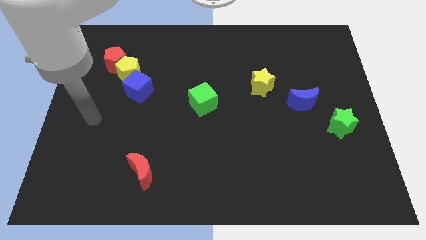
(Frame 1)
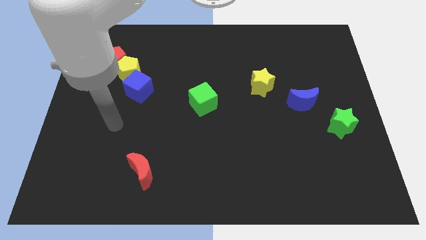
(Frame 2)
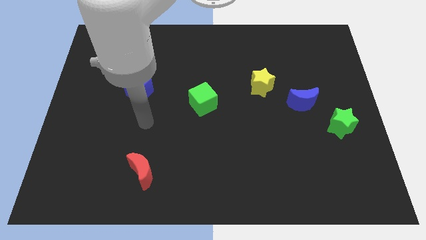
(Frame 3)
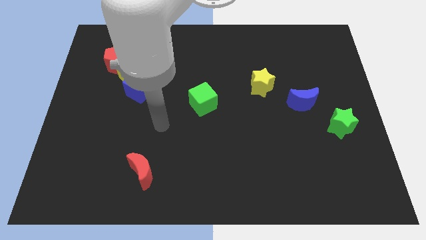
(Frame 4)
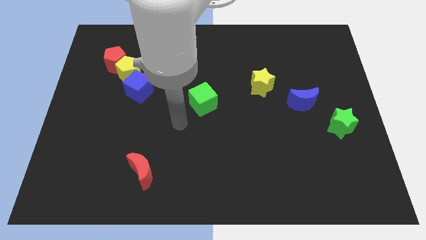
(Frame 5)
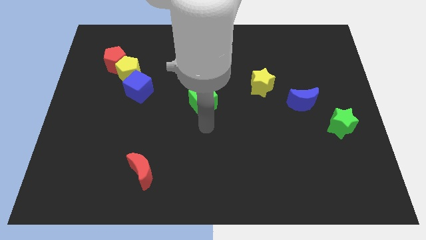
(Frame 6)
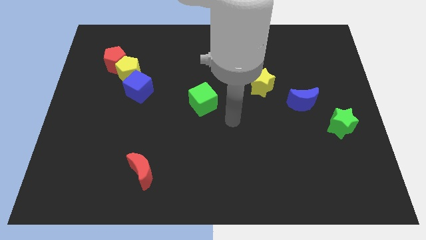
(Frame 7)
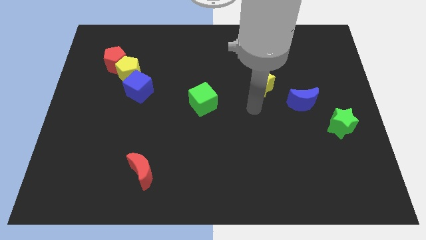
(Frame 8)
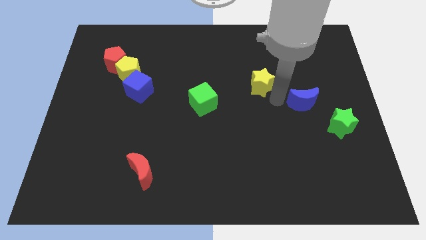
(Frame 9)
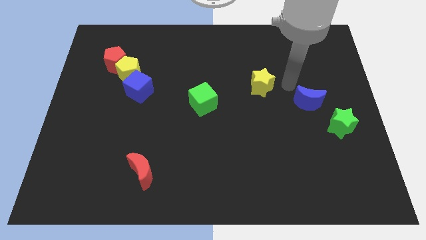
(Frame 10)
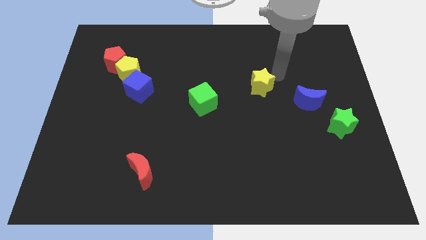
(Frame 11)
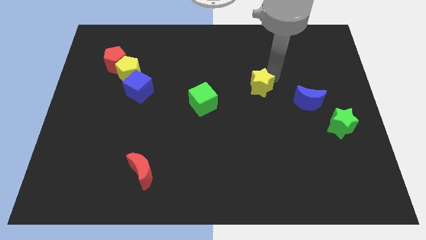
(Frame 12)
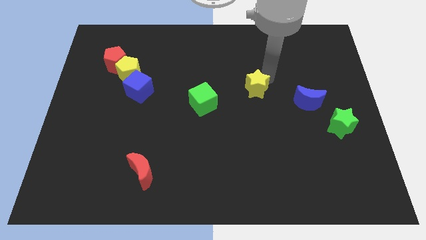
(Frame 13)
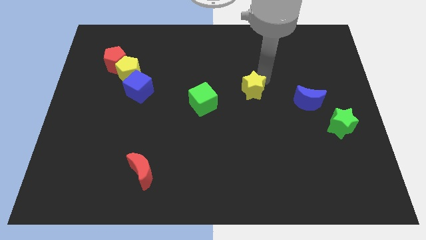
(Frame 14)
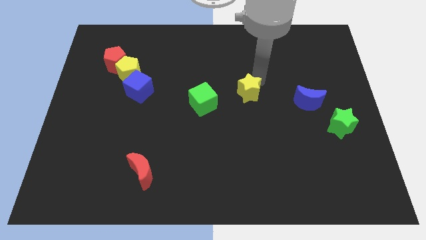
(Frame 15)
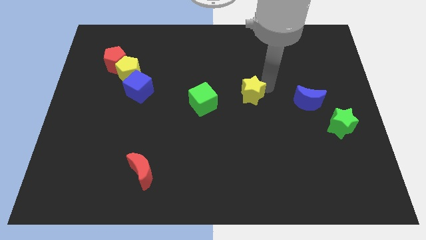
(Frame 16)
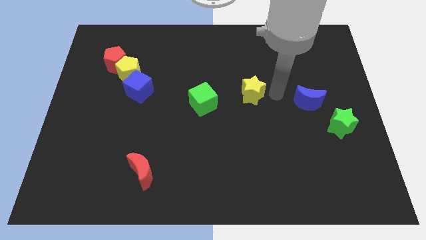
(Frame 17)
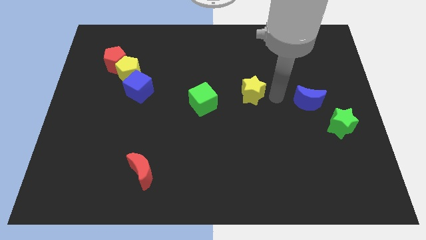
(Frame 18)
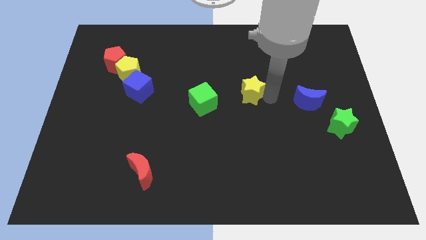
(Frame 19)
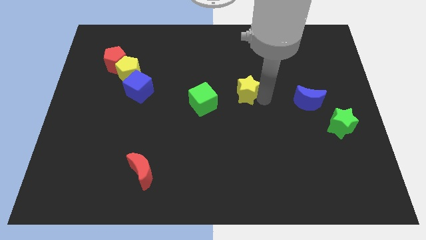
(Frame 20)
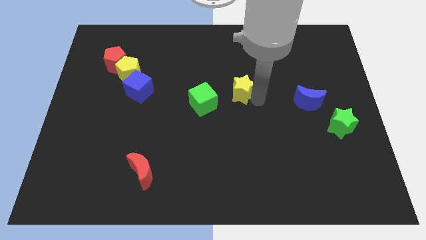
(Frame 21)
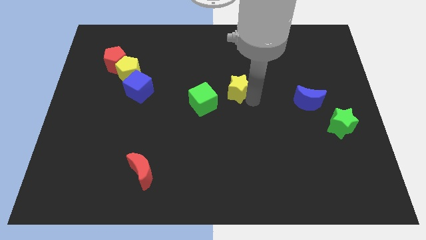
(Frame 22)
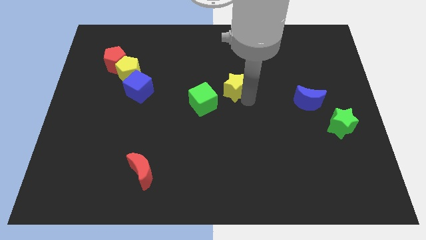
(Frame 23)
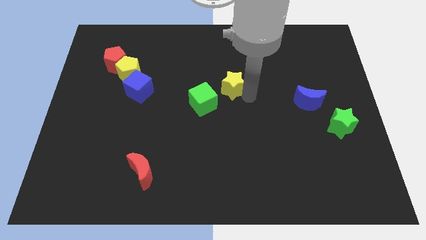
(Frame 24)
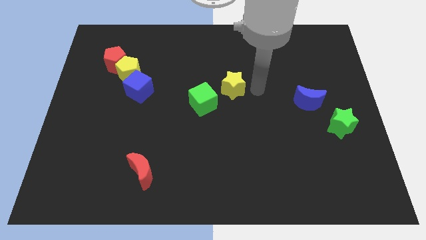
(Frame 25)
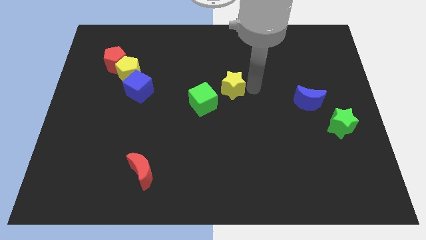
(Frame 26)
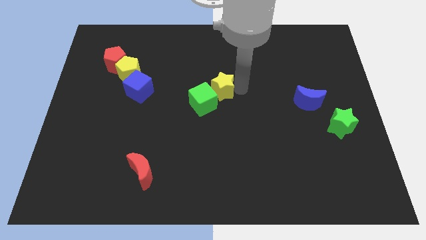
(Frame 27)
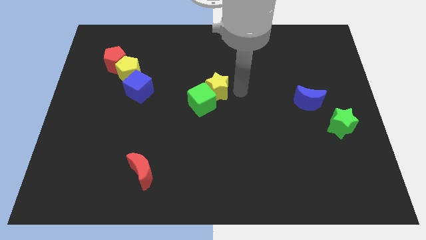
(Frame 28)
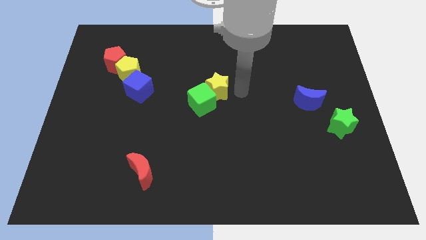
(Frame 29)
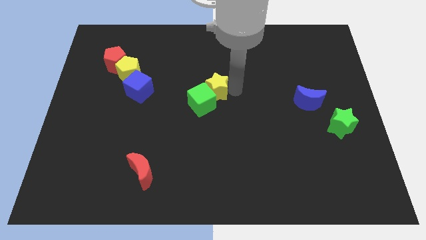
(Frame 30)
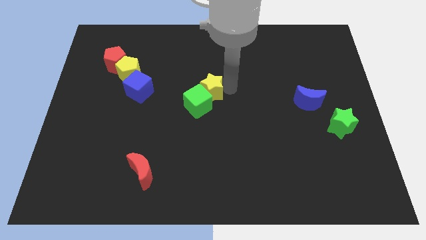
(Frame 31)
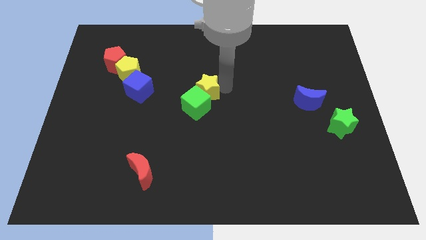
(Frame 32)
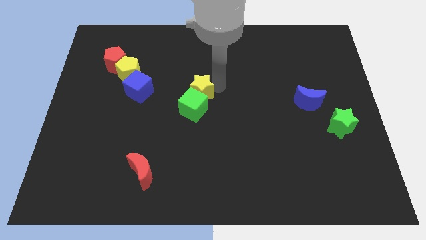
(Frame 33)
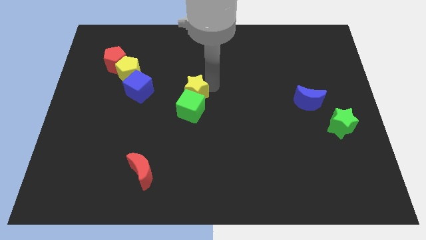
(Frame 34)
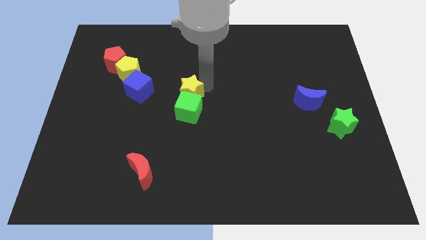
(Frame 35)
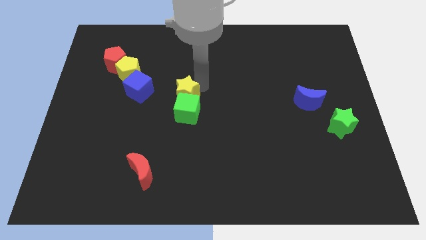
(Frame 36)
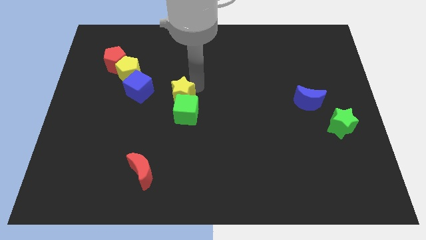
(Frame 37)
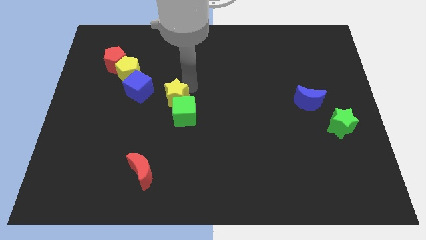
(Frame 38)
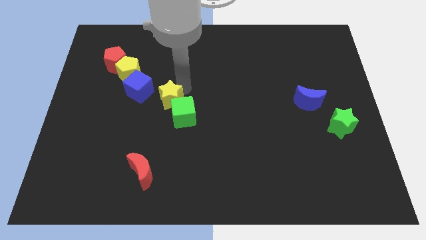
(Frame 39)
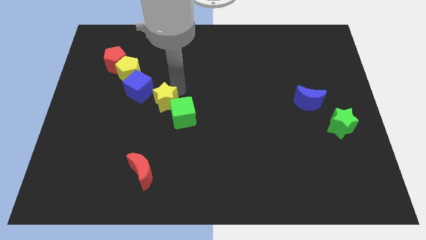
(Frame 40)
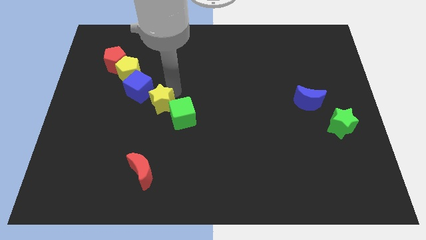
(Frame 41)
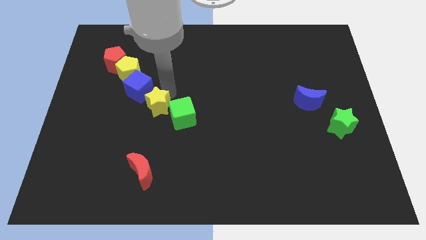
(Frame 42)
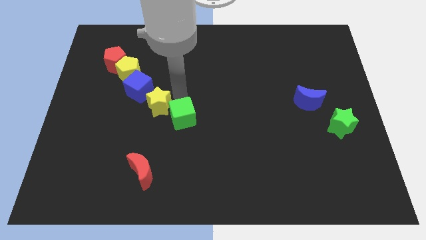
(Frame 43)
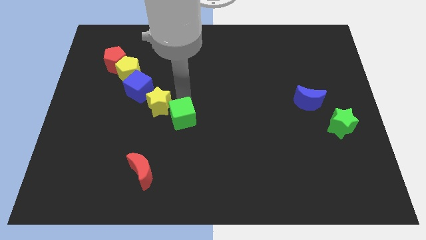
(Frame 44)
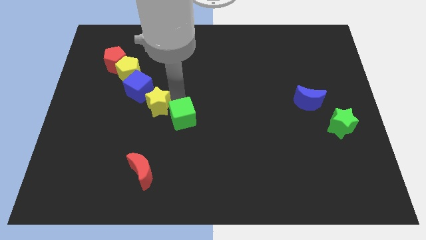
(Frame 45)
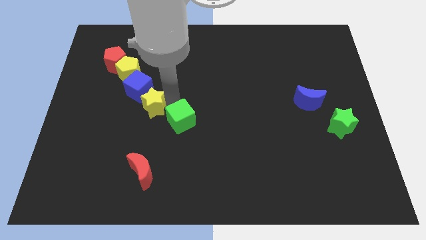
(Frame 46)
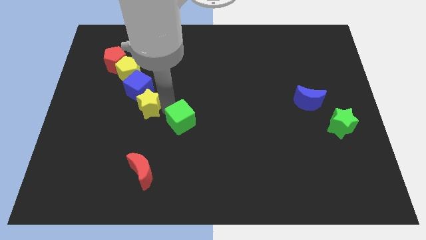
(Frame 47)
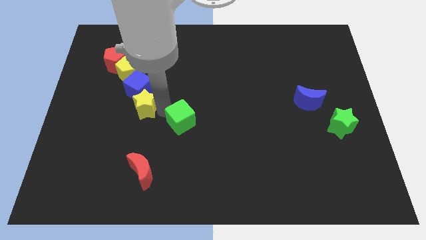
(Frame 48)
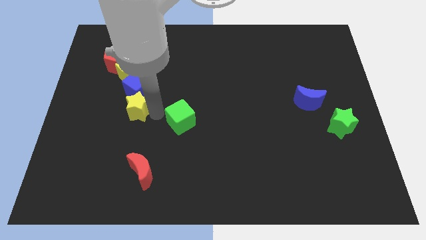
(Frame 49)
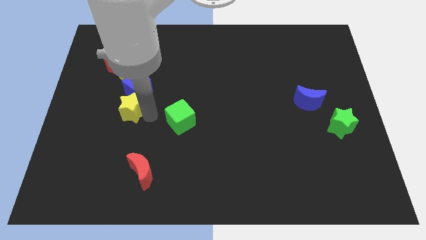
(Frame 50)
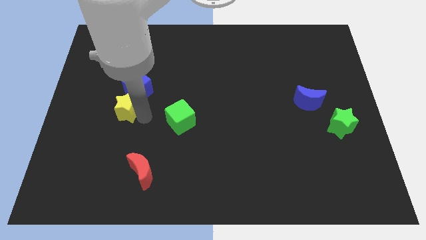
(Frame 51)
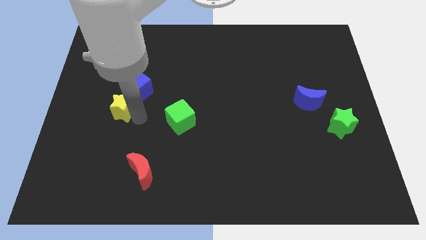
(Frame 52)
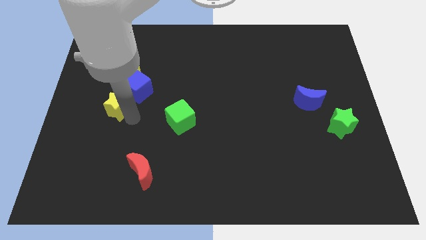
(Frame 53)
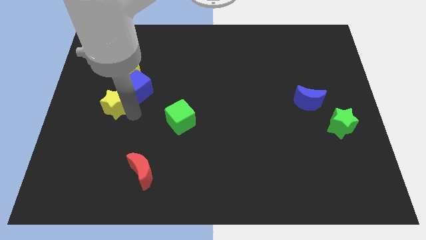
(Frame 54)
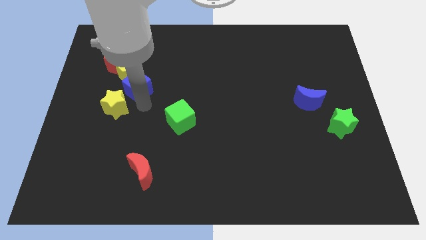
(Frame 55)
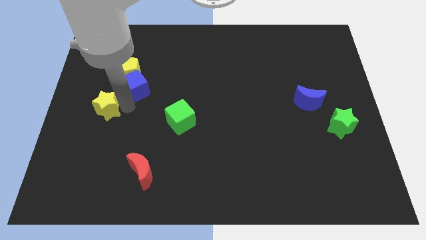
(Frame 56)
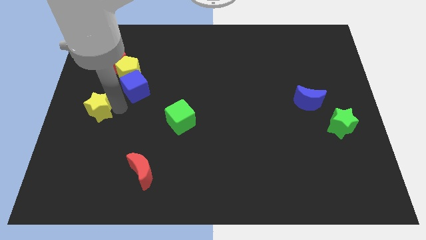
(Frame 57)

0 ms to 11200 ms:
push the yellow star to the left side

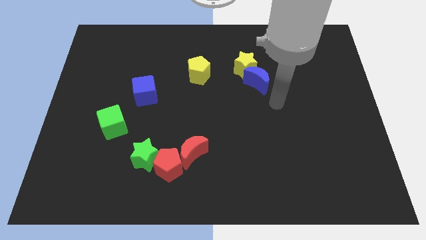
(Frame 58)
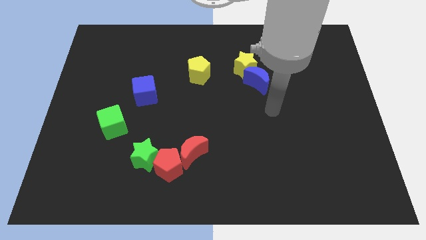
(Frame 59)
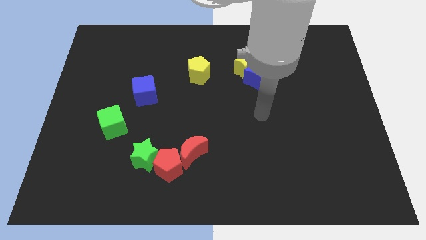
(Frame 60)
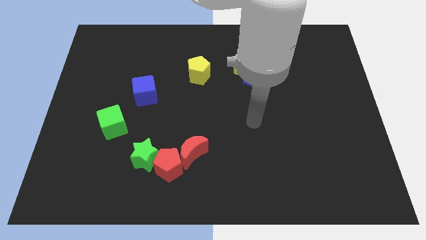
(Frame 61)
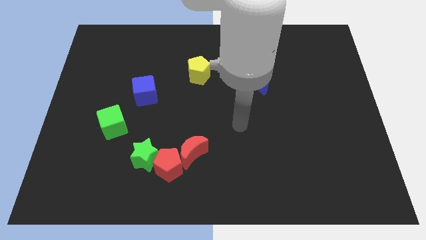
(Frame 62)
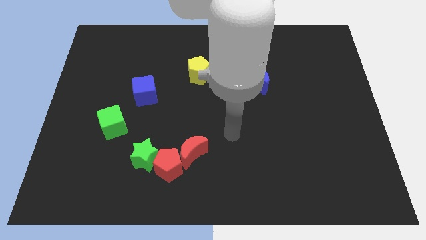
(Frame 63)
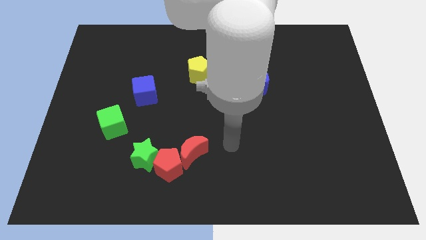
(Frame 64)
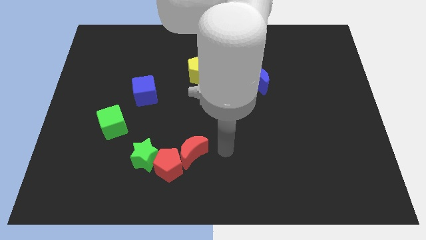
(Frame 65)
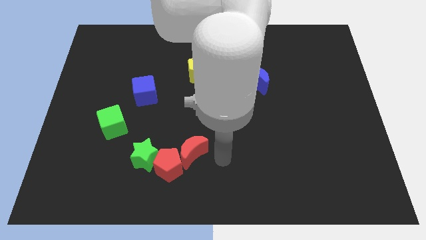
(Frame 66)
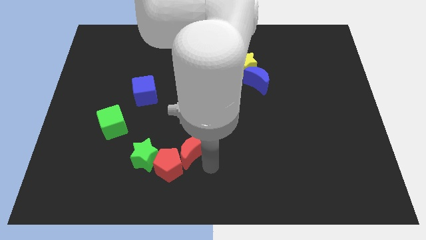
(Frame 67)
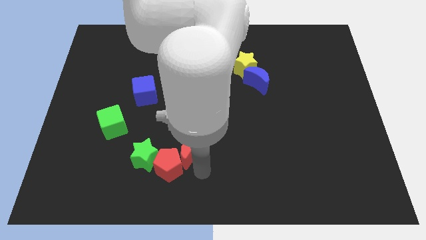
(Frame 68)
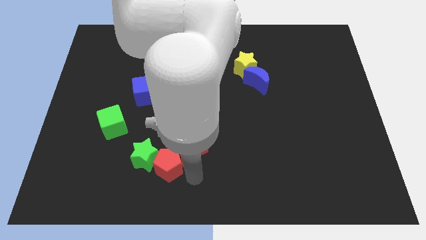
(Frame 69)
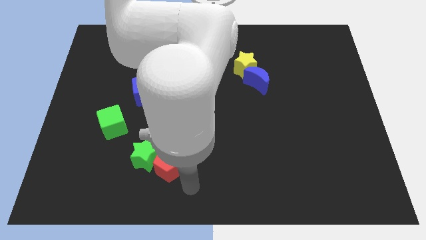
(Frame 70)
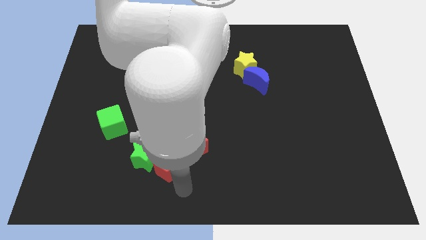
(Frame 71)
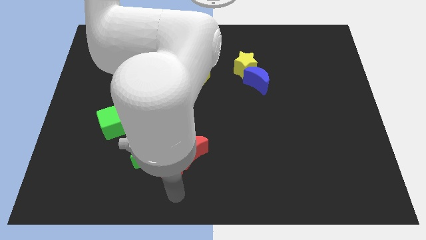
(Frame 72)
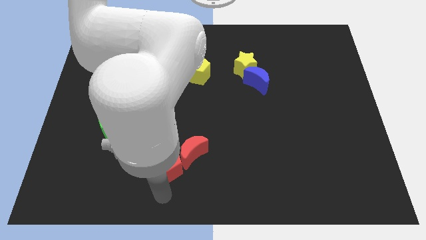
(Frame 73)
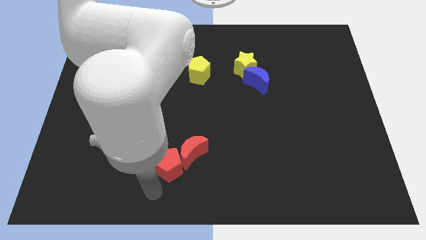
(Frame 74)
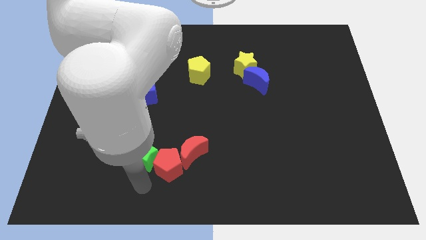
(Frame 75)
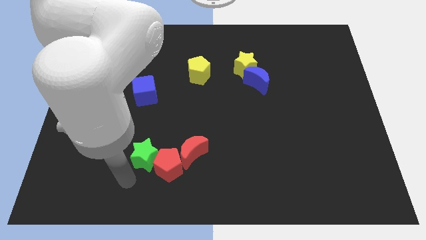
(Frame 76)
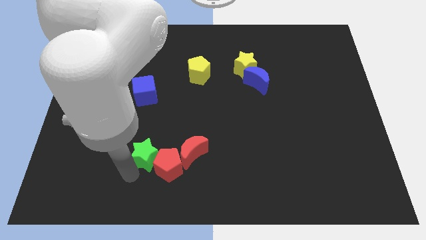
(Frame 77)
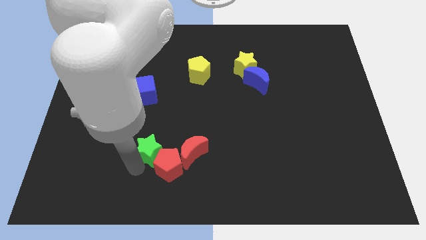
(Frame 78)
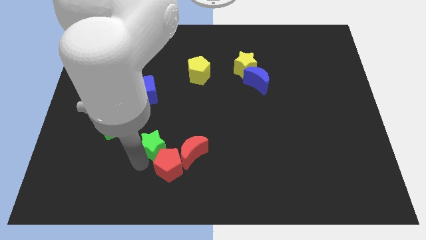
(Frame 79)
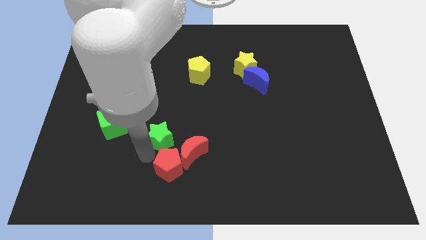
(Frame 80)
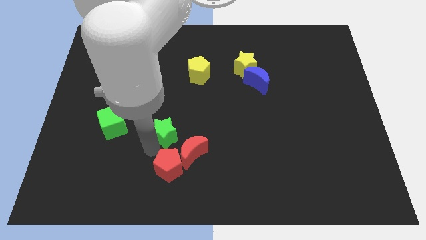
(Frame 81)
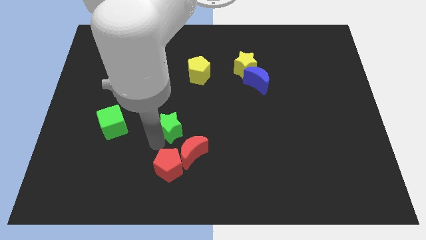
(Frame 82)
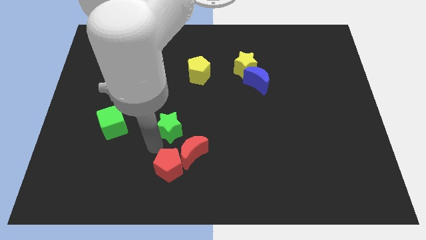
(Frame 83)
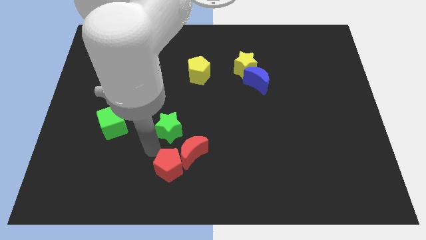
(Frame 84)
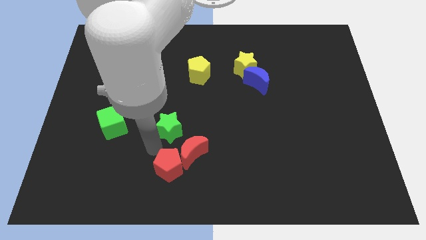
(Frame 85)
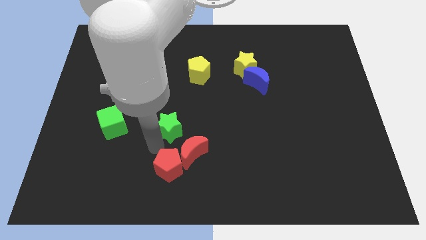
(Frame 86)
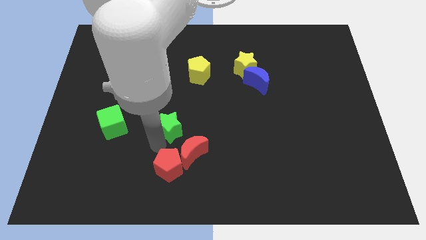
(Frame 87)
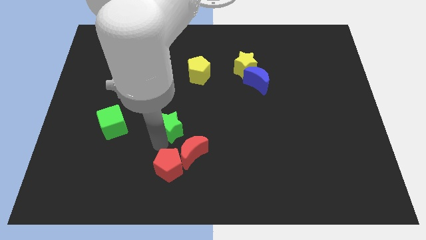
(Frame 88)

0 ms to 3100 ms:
slide the green star to the center of the board
